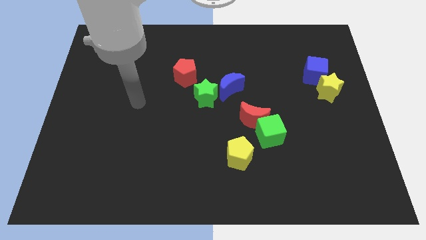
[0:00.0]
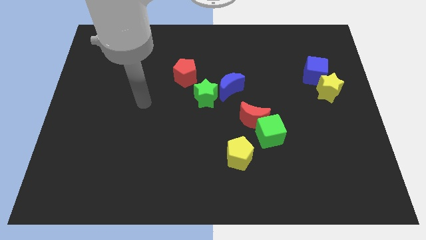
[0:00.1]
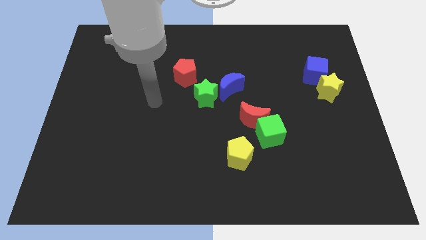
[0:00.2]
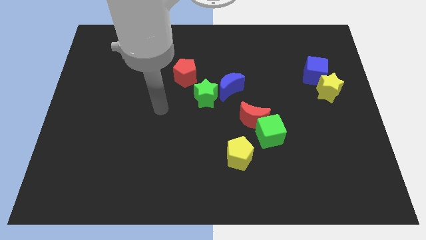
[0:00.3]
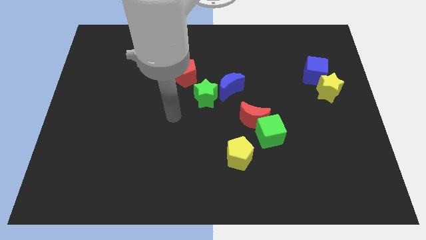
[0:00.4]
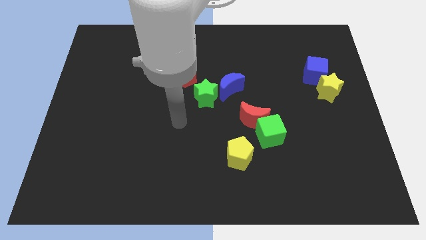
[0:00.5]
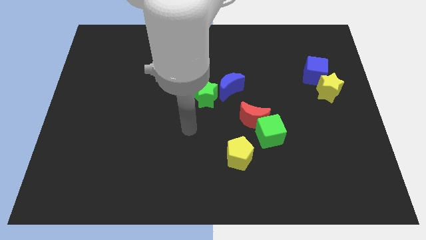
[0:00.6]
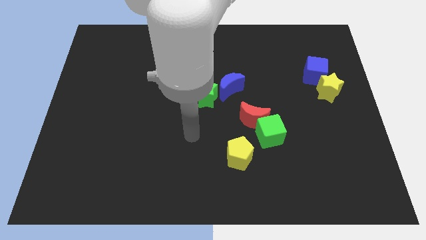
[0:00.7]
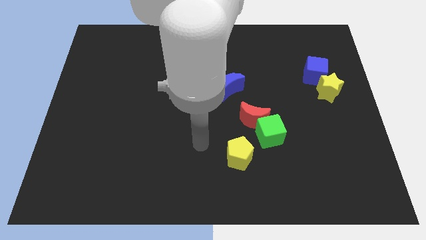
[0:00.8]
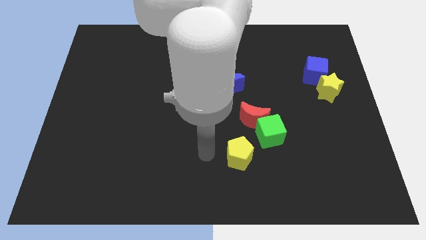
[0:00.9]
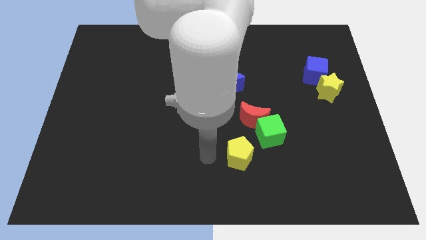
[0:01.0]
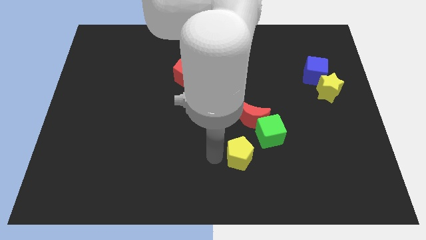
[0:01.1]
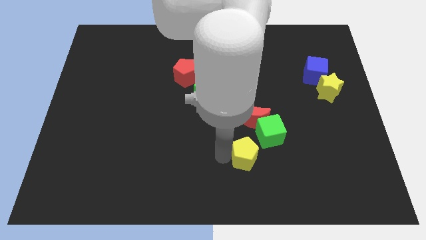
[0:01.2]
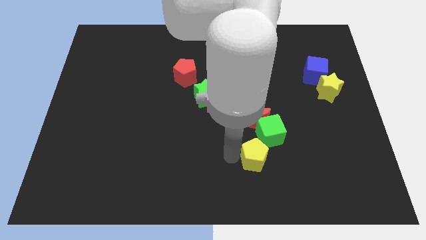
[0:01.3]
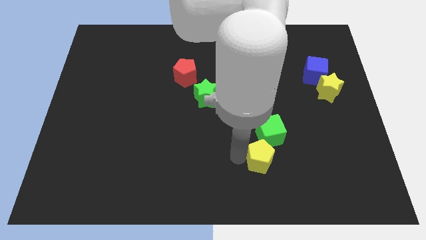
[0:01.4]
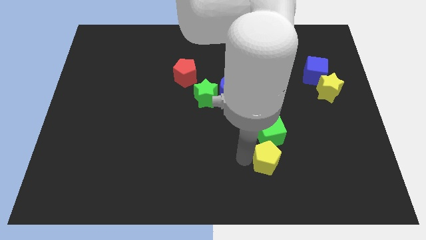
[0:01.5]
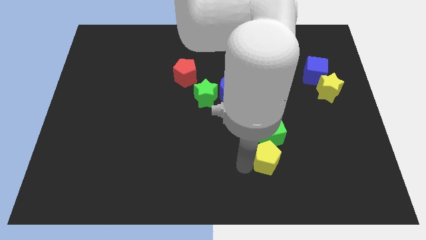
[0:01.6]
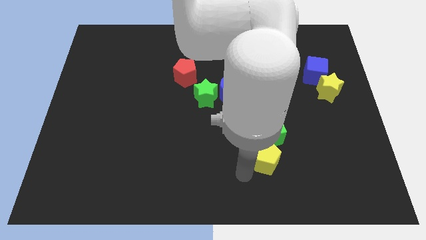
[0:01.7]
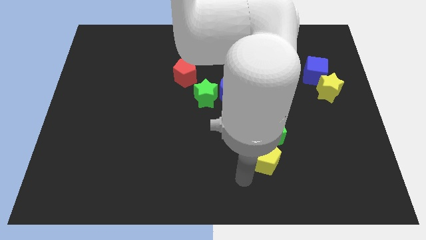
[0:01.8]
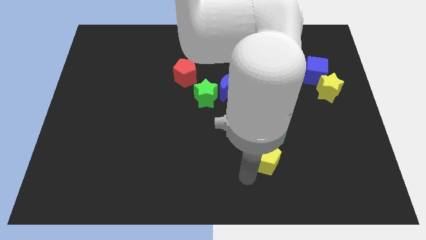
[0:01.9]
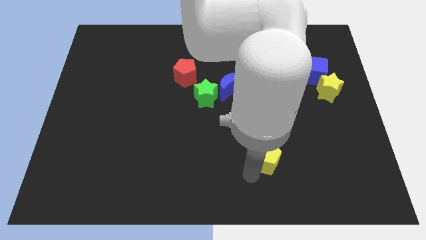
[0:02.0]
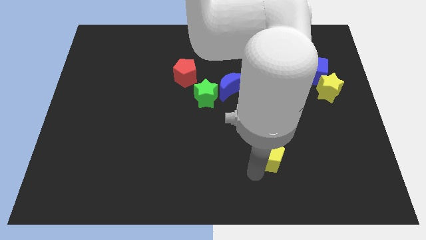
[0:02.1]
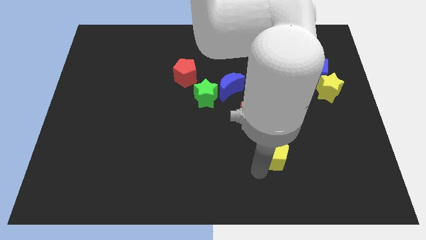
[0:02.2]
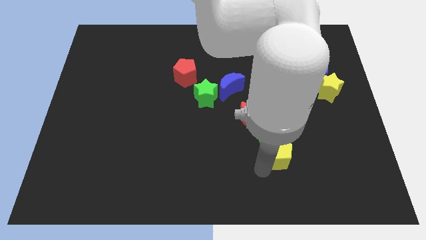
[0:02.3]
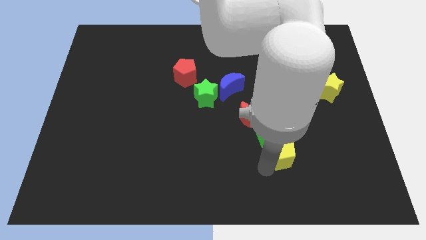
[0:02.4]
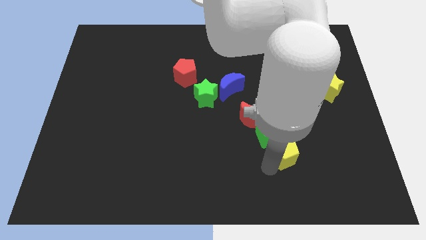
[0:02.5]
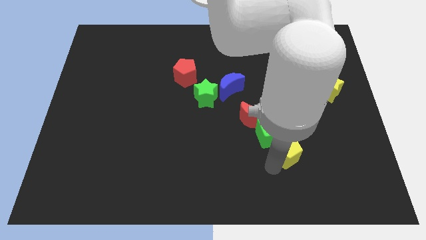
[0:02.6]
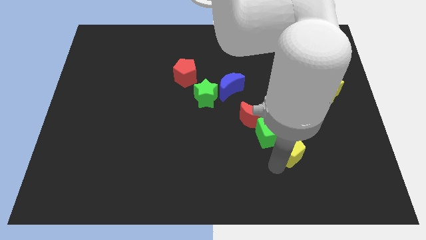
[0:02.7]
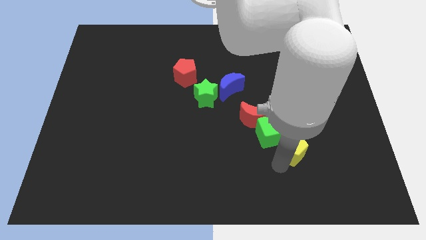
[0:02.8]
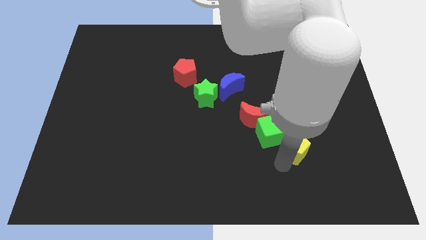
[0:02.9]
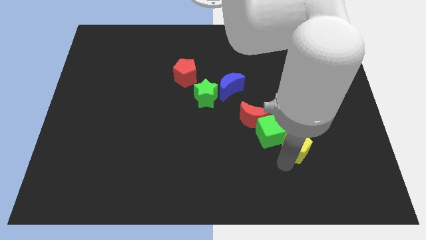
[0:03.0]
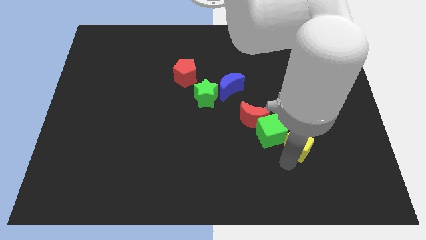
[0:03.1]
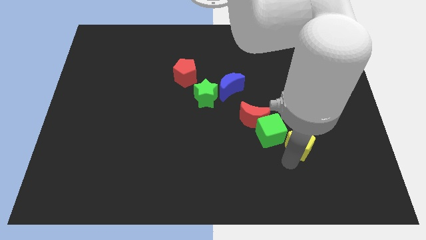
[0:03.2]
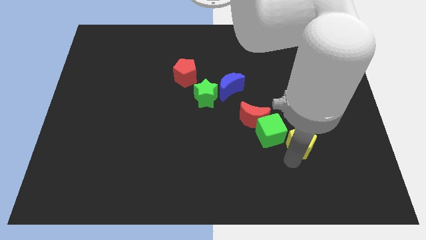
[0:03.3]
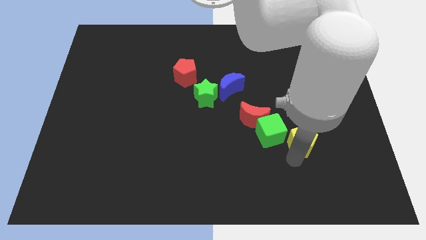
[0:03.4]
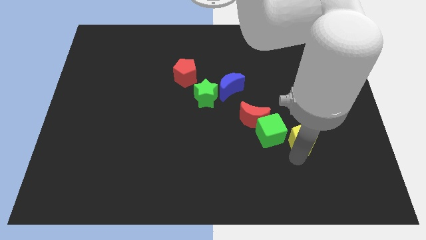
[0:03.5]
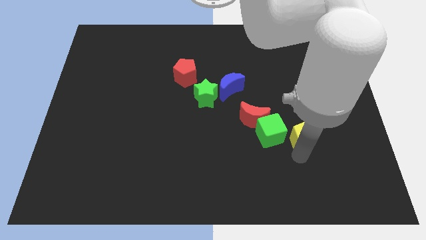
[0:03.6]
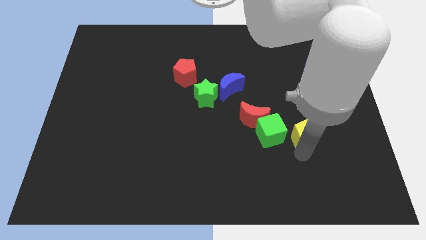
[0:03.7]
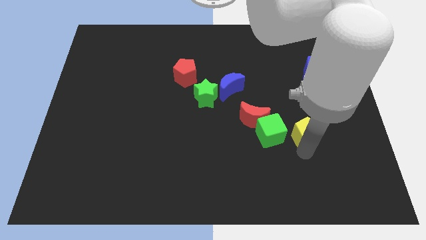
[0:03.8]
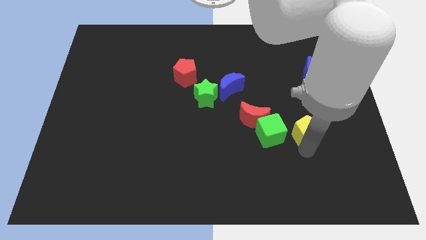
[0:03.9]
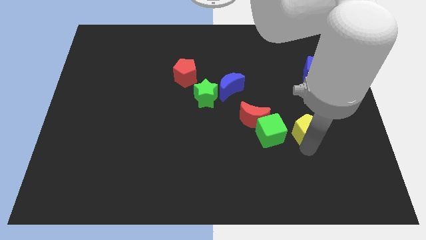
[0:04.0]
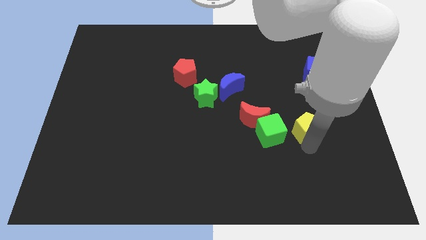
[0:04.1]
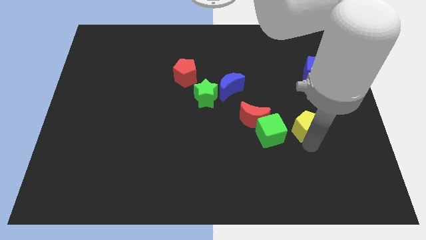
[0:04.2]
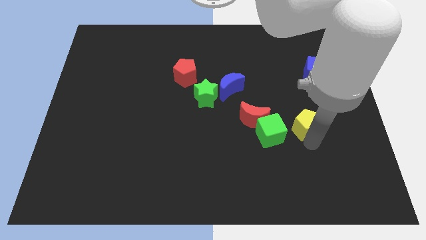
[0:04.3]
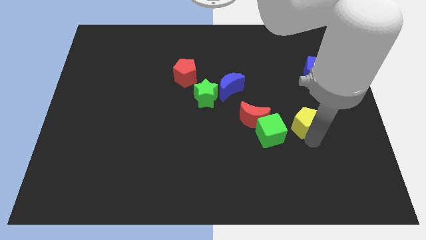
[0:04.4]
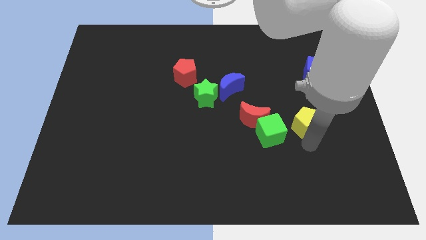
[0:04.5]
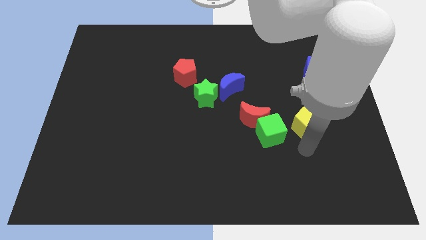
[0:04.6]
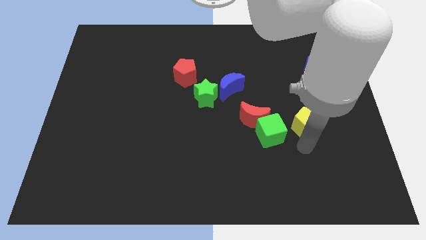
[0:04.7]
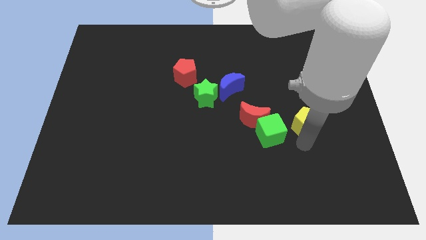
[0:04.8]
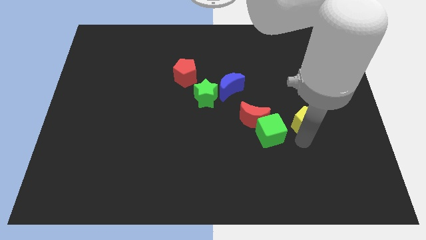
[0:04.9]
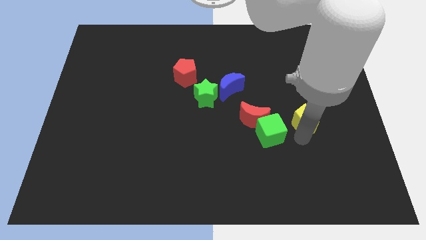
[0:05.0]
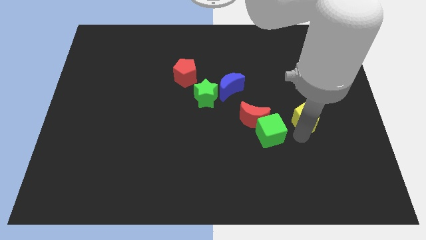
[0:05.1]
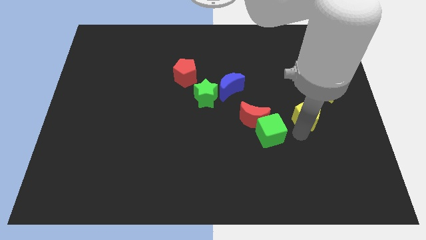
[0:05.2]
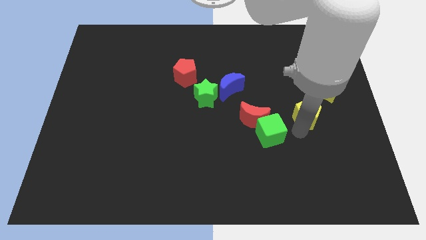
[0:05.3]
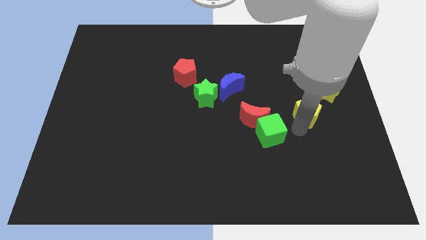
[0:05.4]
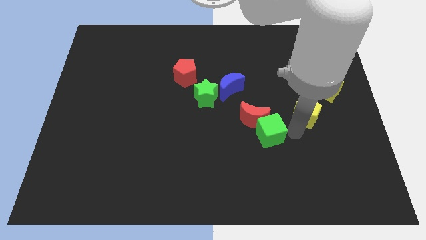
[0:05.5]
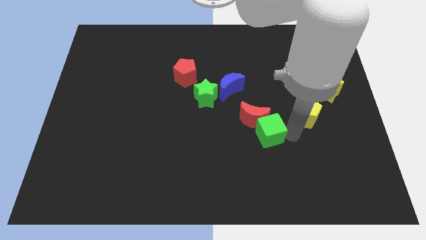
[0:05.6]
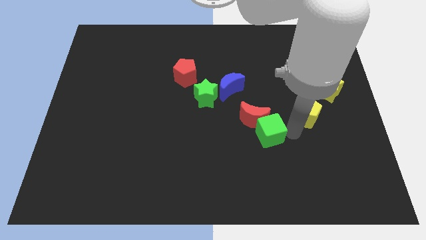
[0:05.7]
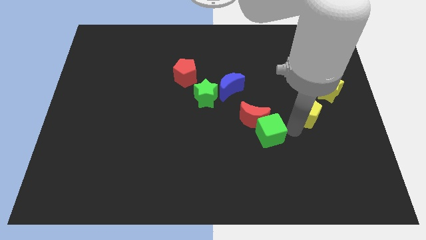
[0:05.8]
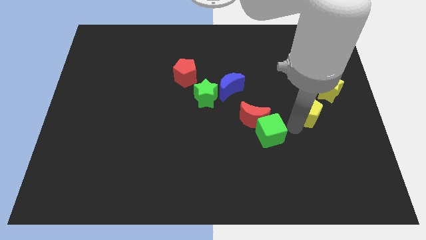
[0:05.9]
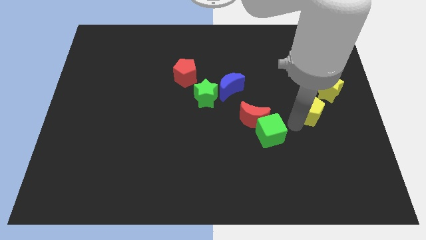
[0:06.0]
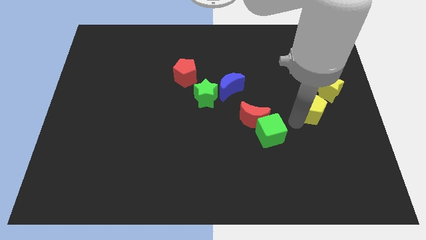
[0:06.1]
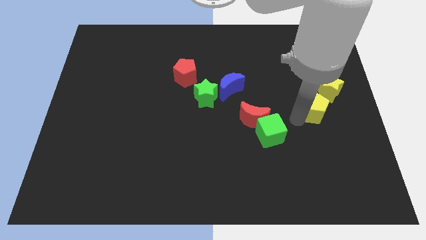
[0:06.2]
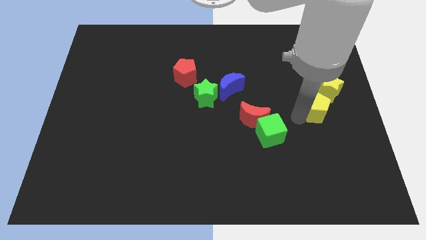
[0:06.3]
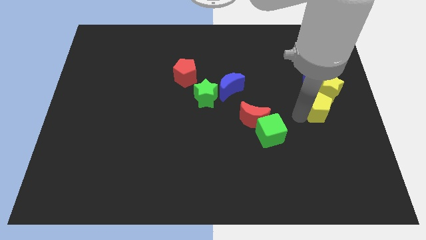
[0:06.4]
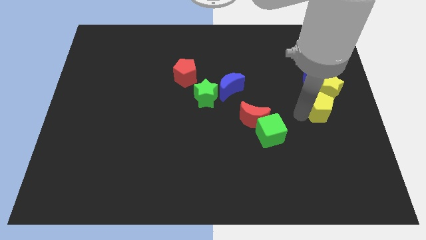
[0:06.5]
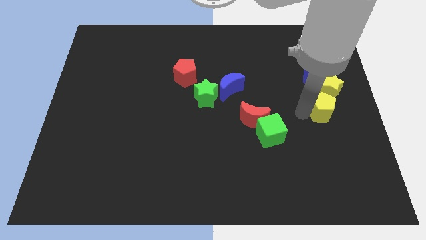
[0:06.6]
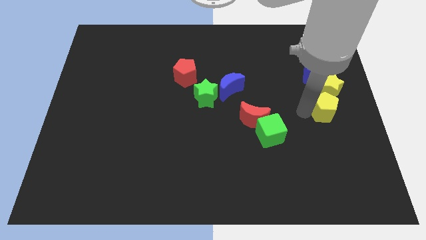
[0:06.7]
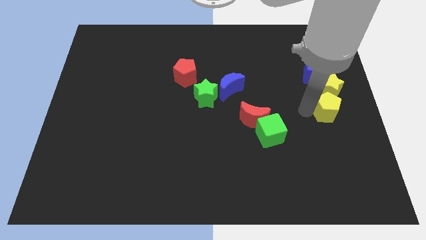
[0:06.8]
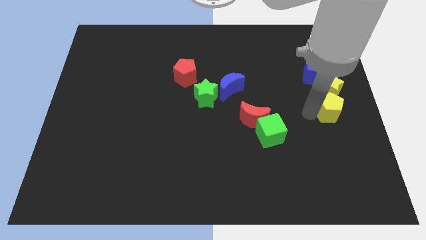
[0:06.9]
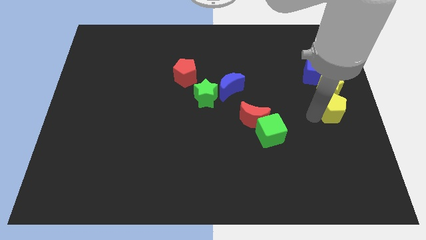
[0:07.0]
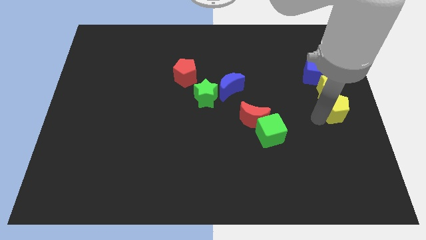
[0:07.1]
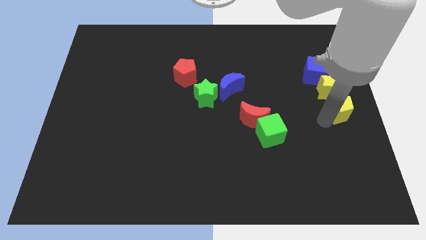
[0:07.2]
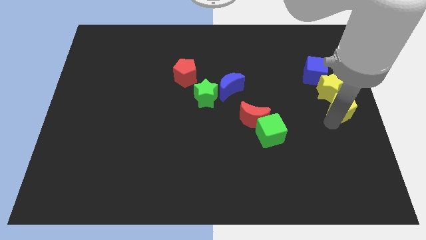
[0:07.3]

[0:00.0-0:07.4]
push the yellow pentagon towards the yellow star

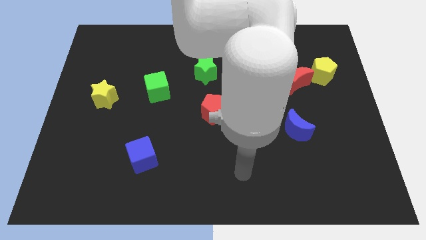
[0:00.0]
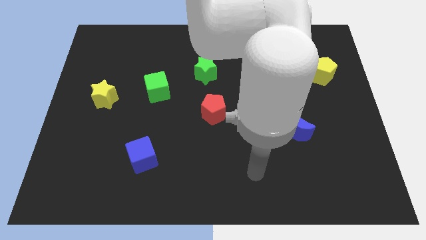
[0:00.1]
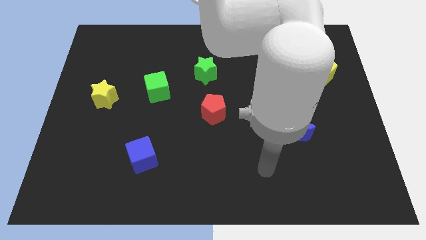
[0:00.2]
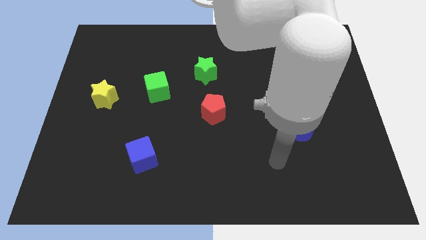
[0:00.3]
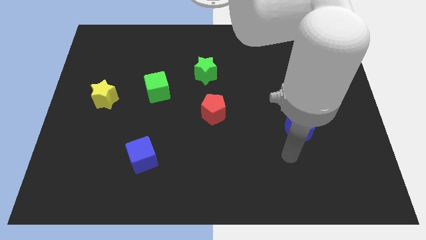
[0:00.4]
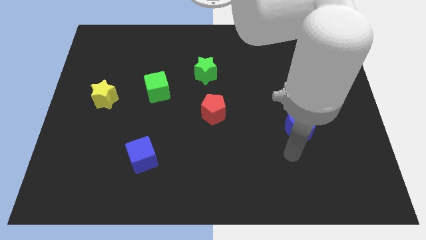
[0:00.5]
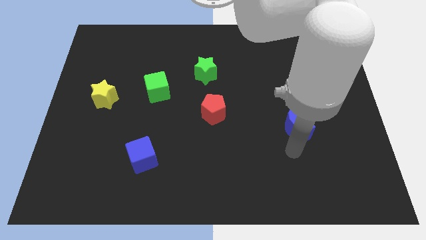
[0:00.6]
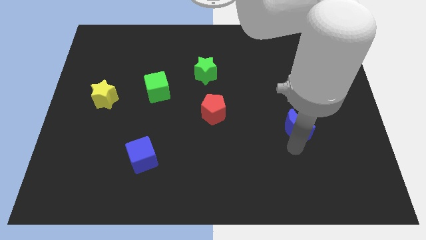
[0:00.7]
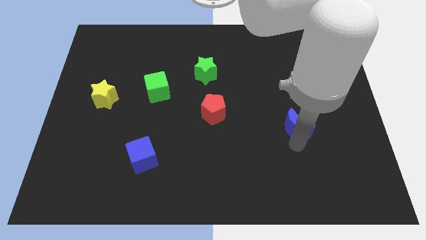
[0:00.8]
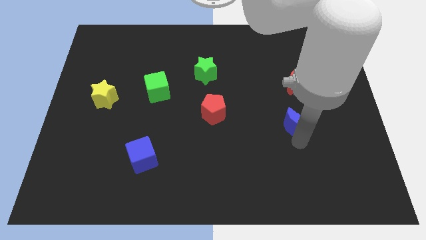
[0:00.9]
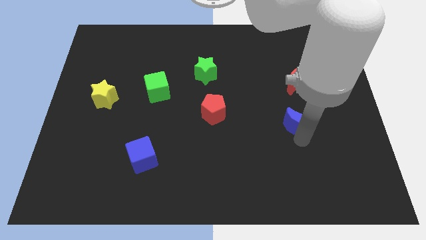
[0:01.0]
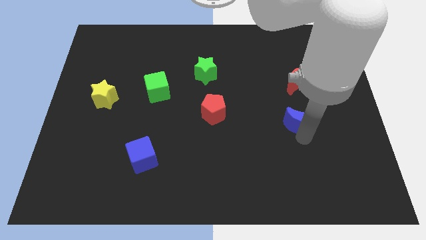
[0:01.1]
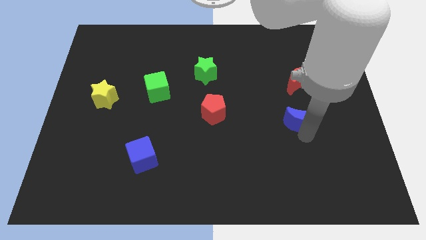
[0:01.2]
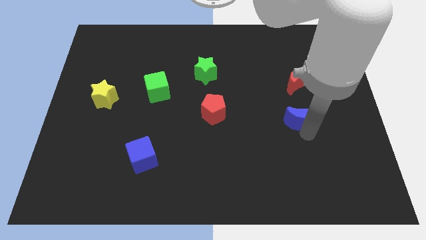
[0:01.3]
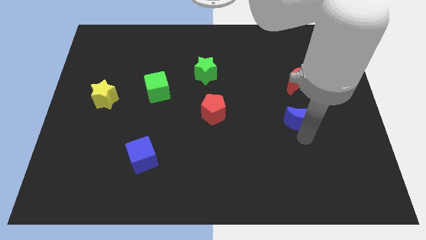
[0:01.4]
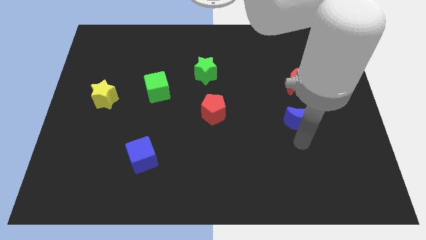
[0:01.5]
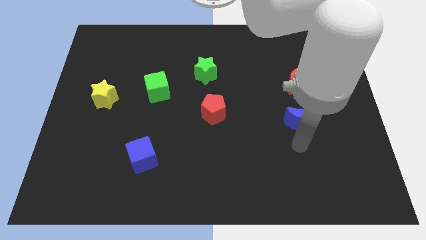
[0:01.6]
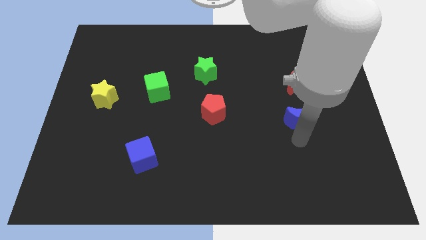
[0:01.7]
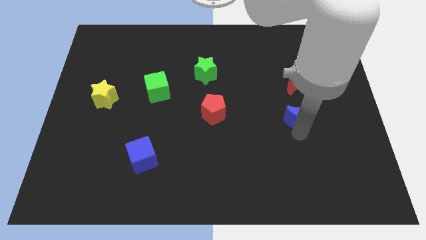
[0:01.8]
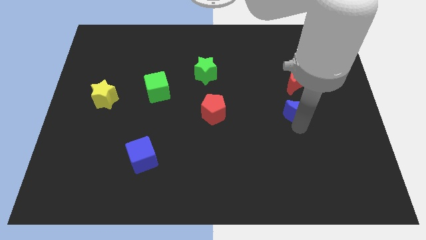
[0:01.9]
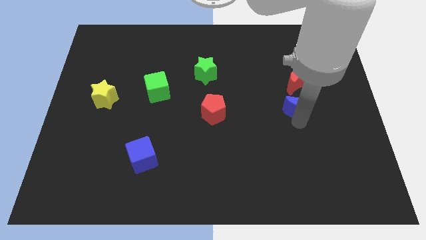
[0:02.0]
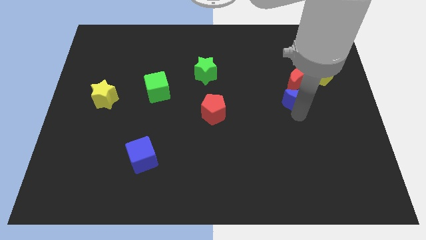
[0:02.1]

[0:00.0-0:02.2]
move the blue moon towards the red moon
